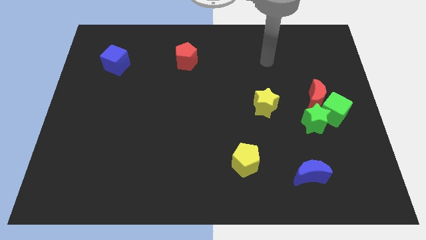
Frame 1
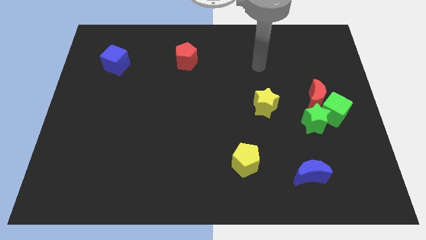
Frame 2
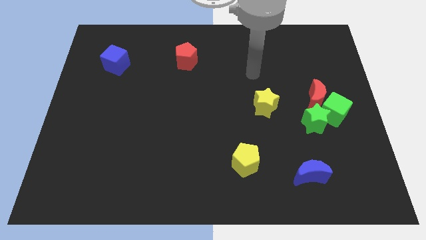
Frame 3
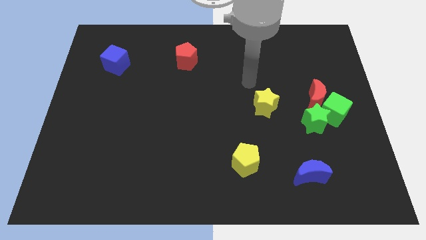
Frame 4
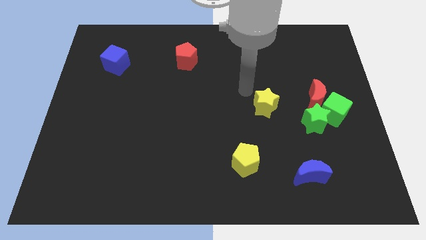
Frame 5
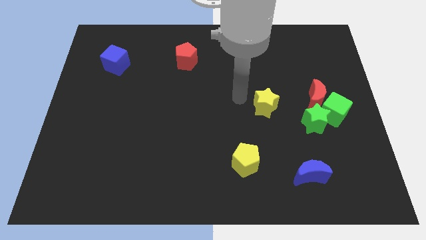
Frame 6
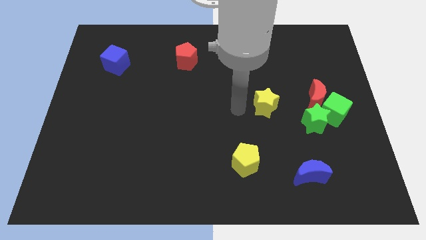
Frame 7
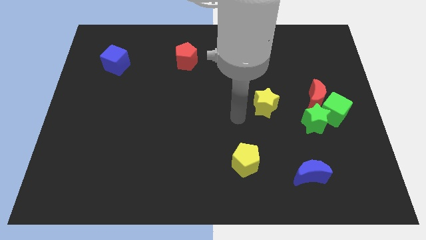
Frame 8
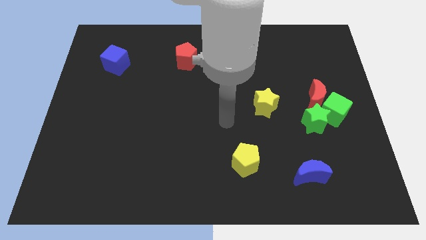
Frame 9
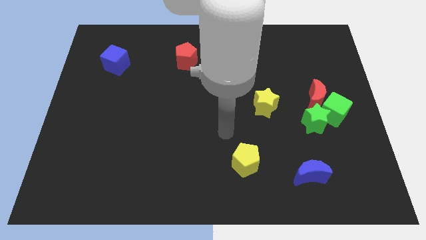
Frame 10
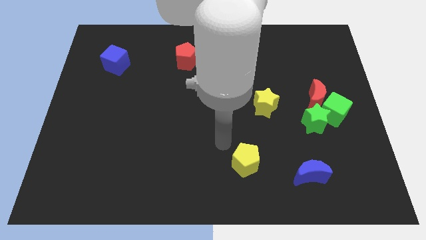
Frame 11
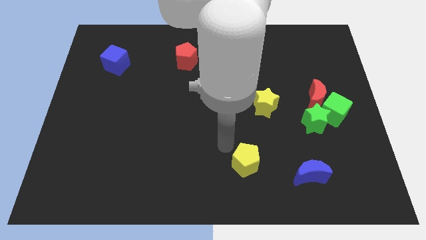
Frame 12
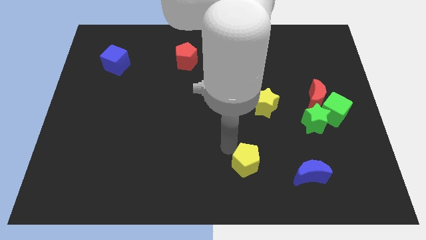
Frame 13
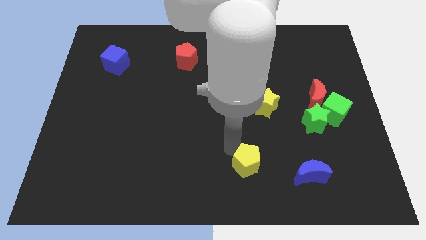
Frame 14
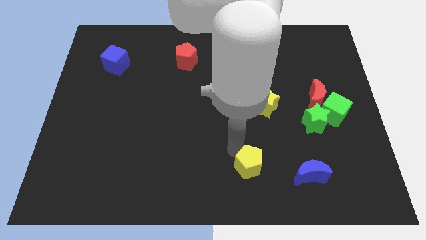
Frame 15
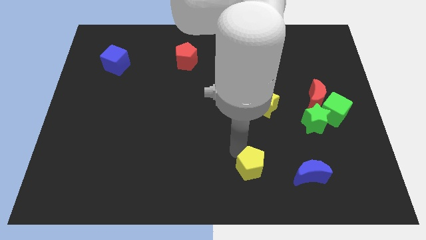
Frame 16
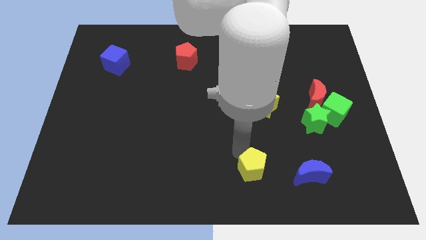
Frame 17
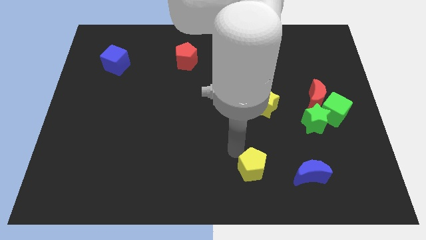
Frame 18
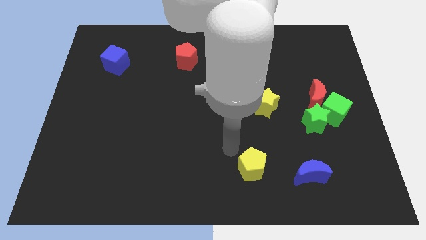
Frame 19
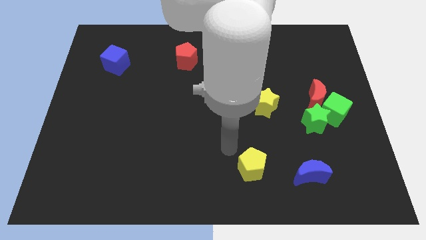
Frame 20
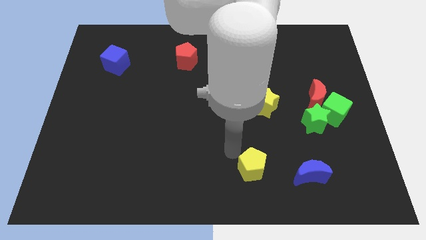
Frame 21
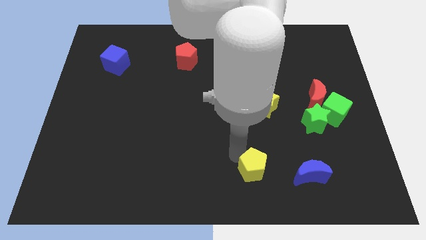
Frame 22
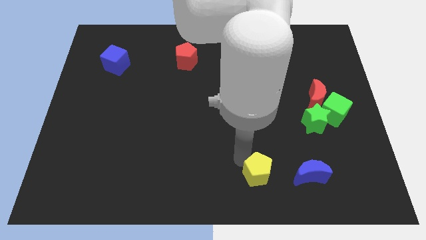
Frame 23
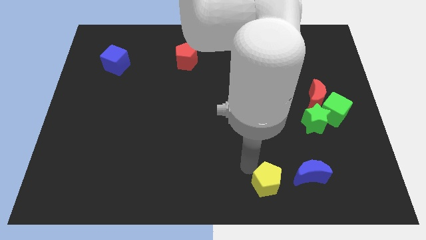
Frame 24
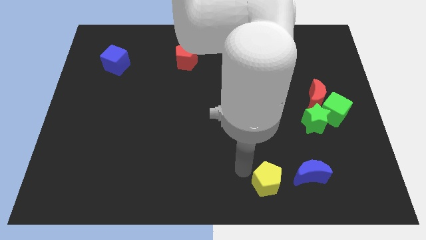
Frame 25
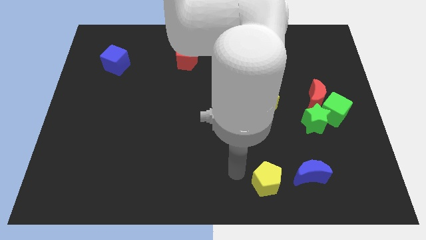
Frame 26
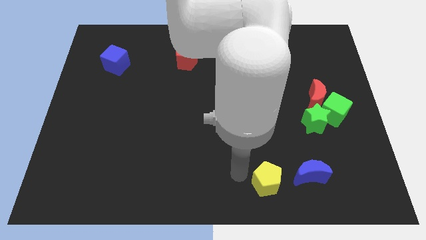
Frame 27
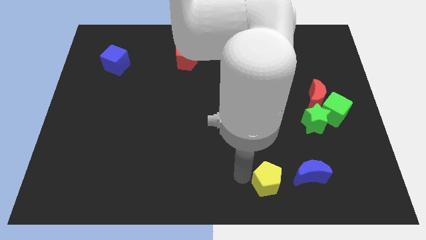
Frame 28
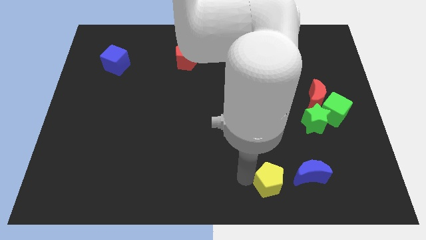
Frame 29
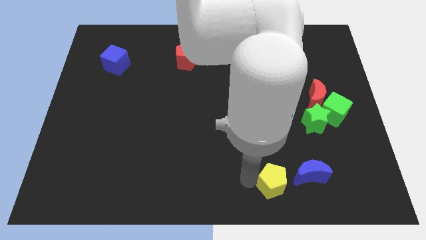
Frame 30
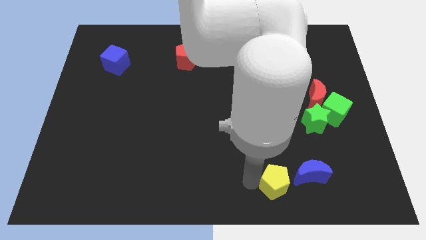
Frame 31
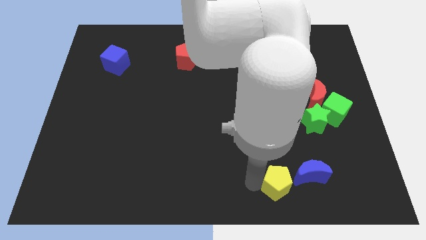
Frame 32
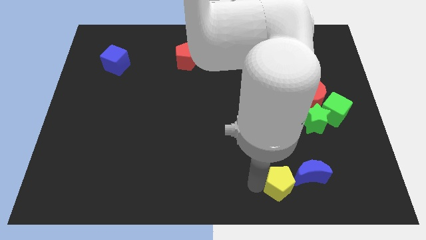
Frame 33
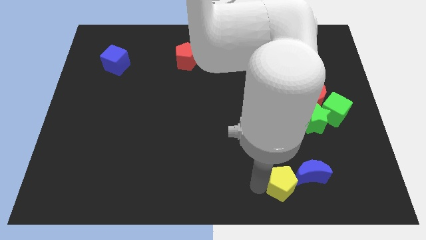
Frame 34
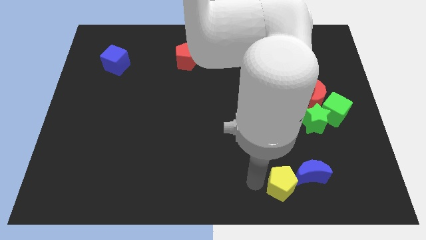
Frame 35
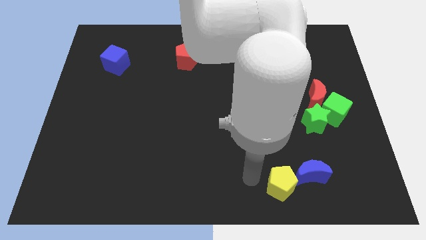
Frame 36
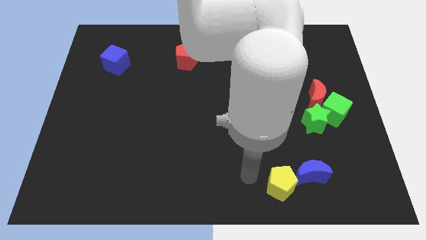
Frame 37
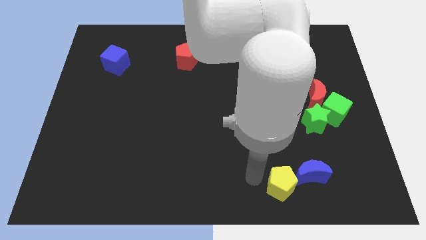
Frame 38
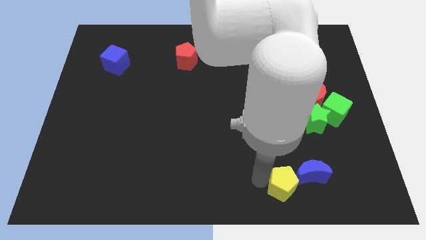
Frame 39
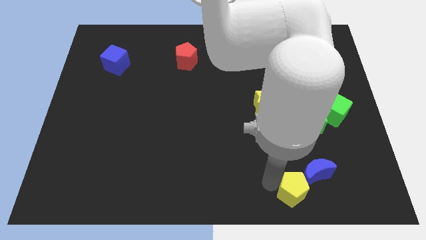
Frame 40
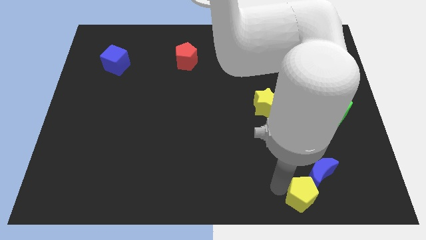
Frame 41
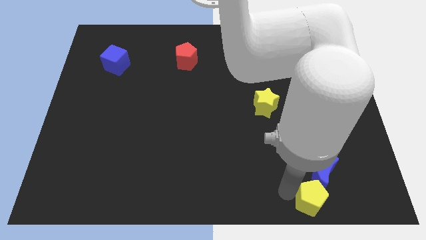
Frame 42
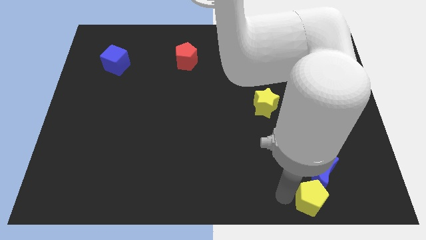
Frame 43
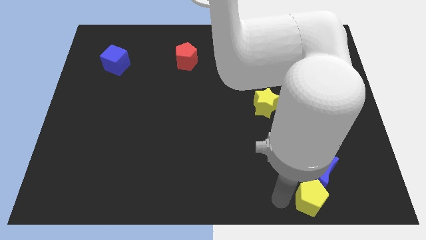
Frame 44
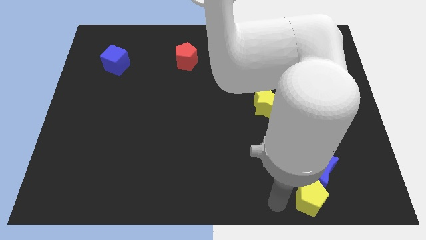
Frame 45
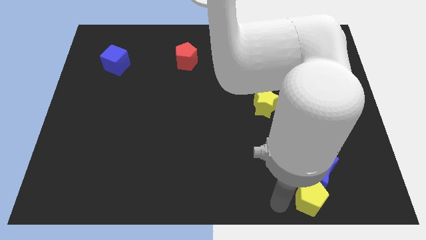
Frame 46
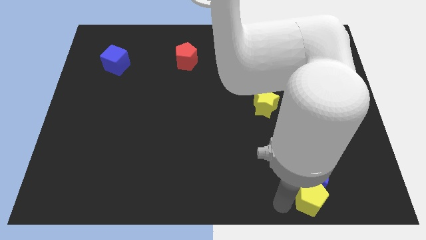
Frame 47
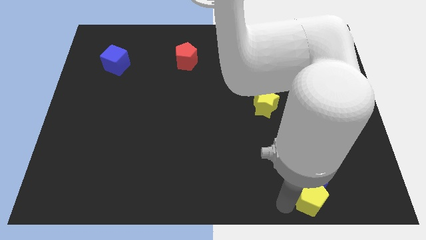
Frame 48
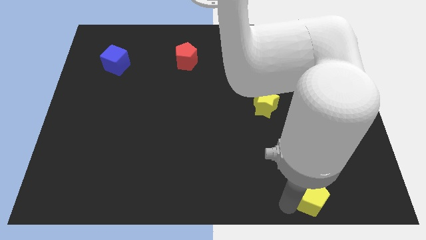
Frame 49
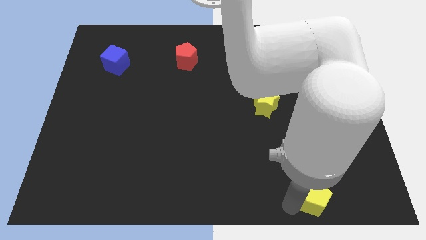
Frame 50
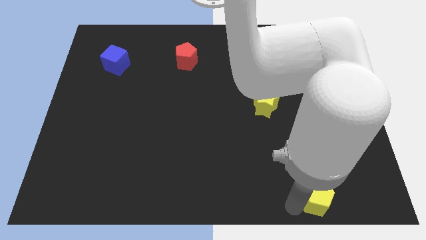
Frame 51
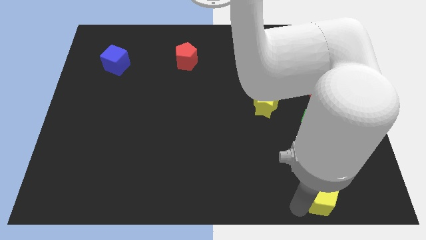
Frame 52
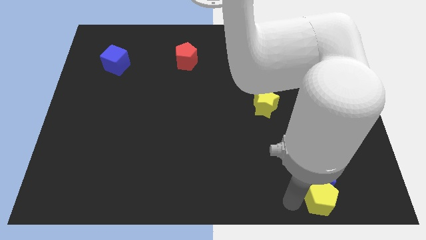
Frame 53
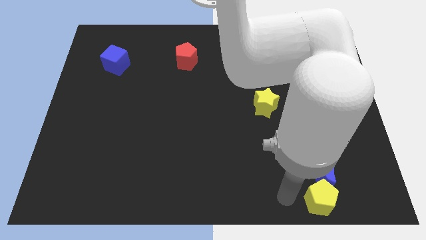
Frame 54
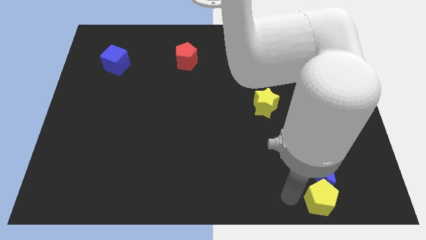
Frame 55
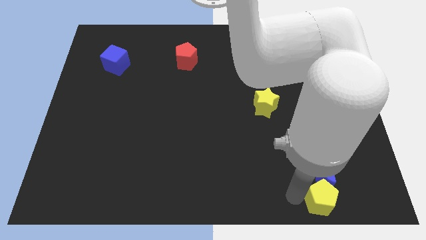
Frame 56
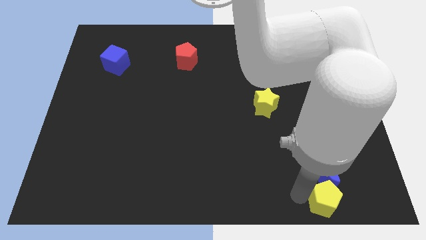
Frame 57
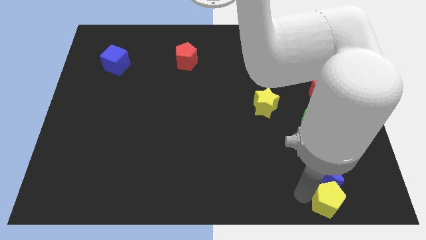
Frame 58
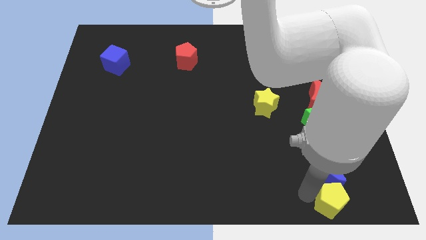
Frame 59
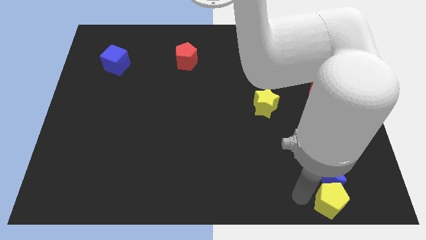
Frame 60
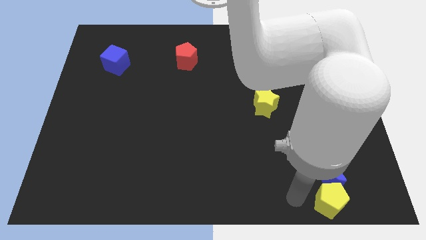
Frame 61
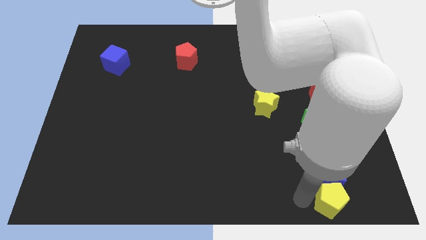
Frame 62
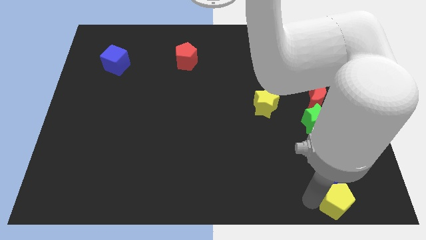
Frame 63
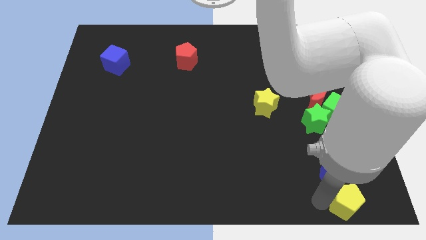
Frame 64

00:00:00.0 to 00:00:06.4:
push the yellow pentagon to the bottom right corner
